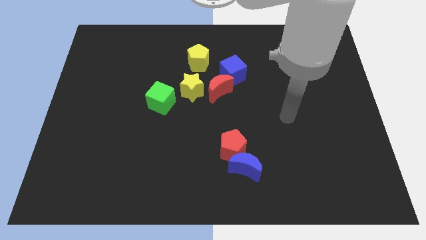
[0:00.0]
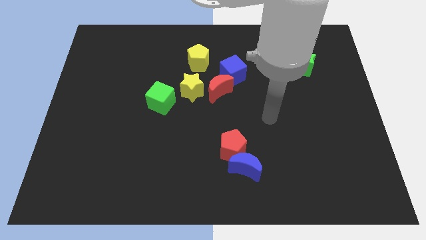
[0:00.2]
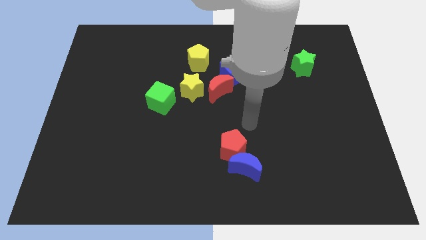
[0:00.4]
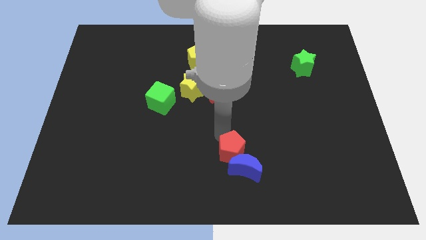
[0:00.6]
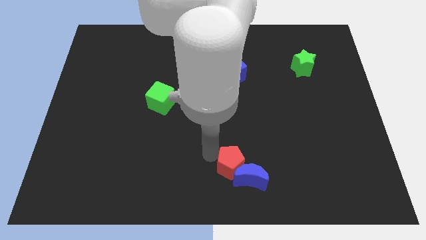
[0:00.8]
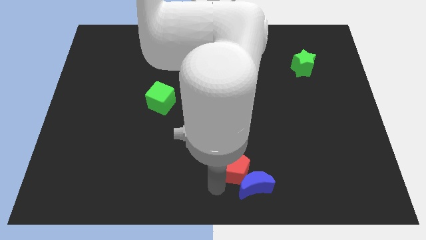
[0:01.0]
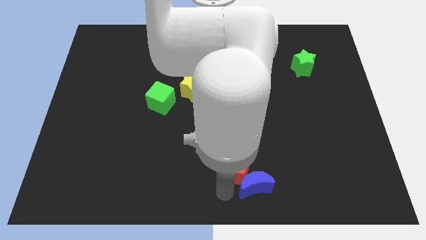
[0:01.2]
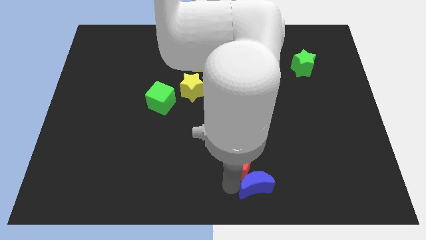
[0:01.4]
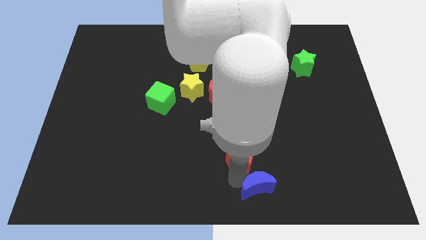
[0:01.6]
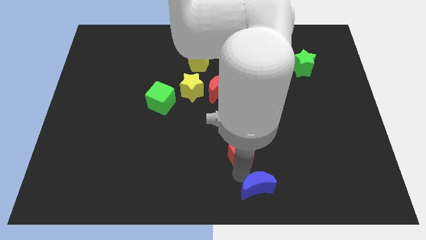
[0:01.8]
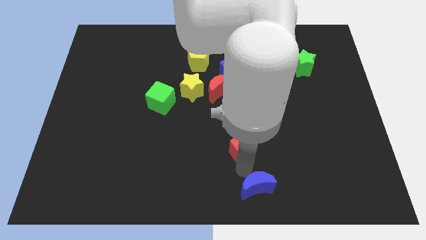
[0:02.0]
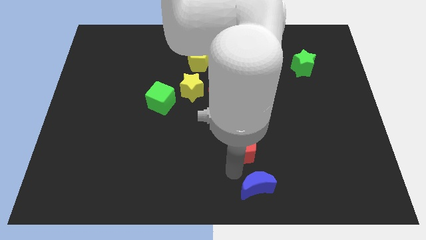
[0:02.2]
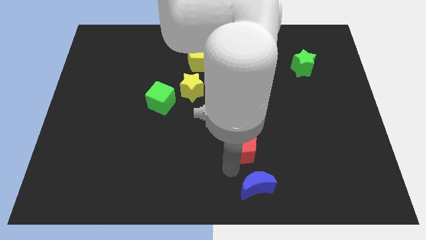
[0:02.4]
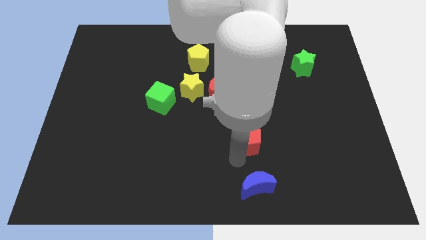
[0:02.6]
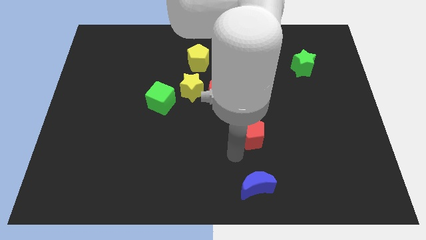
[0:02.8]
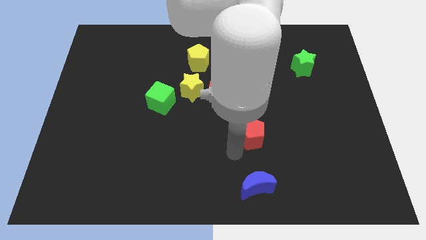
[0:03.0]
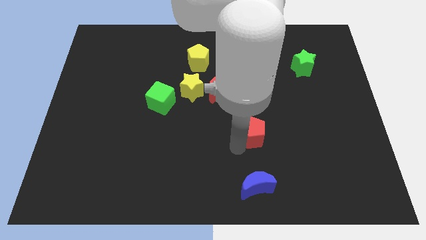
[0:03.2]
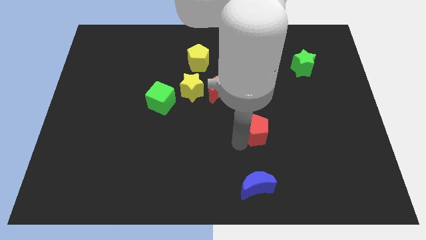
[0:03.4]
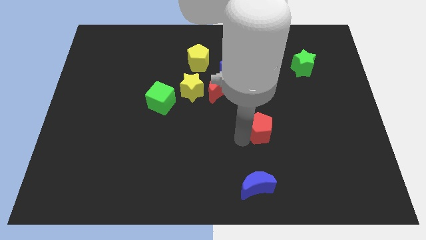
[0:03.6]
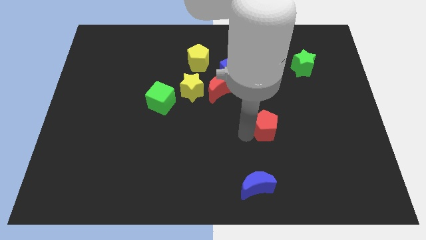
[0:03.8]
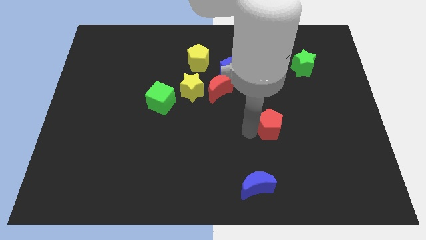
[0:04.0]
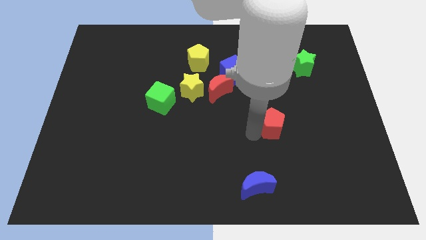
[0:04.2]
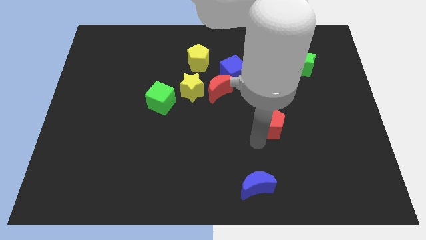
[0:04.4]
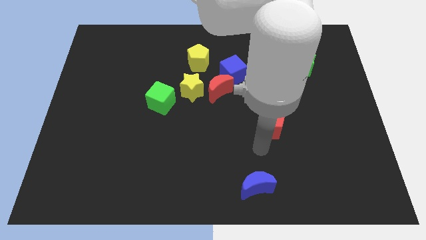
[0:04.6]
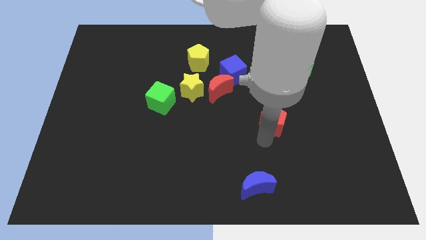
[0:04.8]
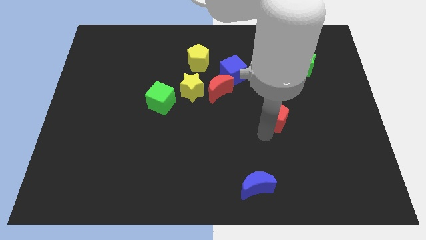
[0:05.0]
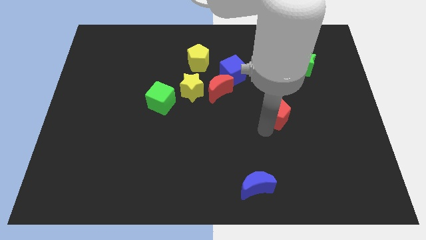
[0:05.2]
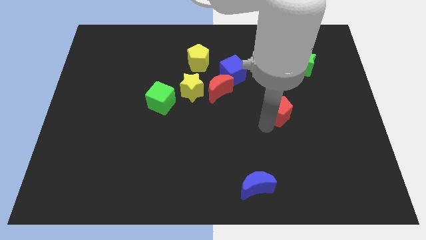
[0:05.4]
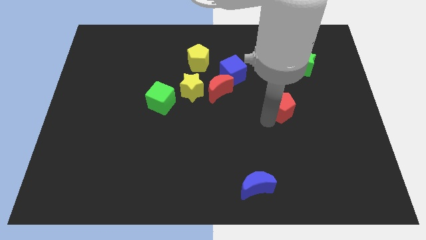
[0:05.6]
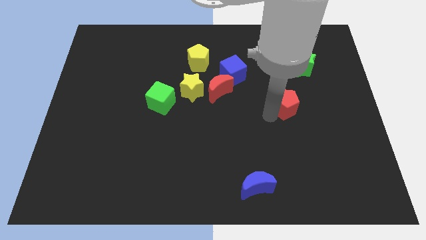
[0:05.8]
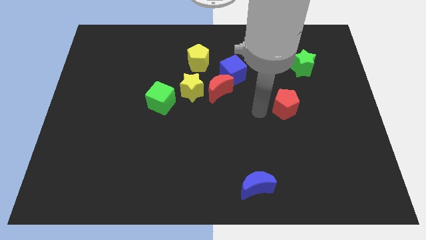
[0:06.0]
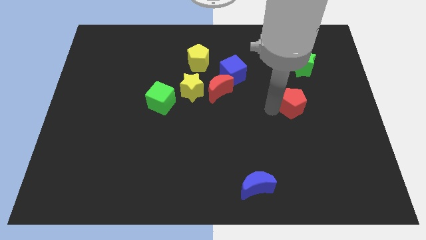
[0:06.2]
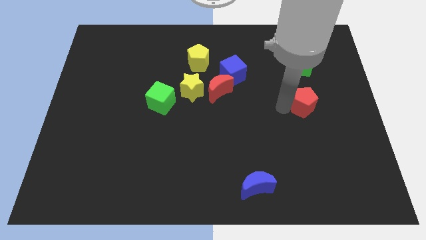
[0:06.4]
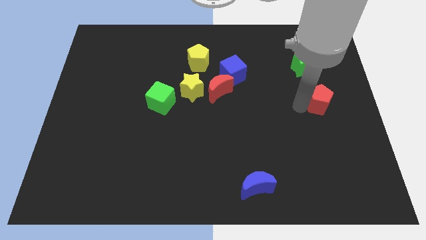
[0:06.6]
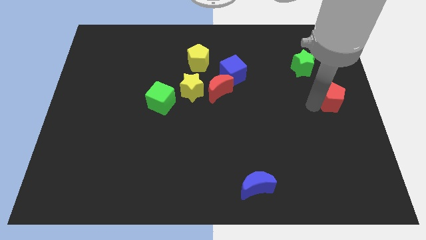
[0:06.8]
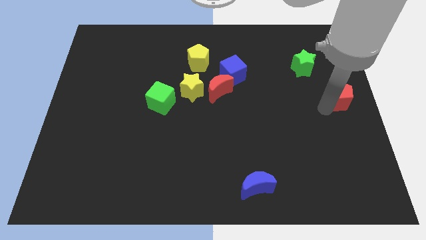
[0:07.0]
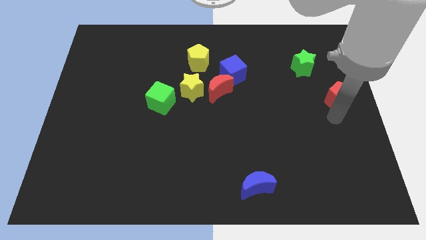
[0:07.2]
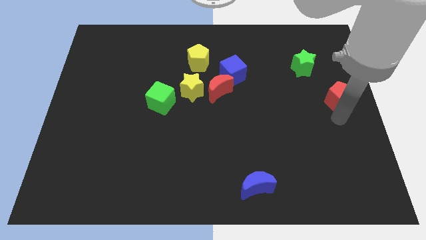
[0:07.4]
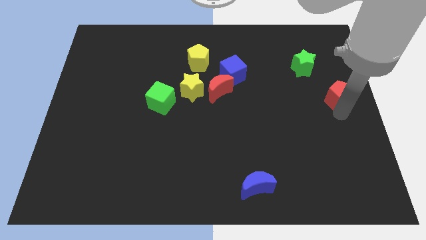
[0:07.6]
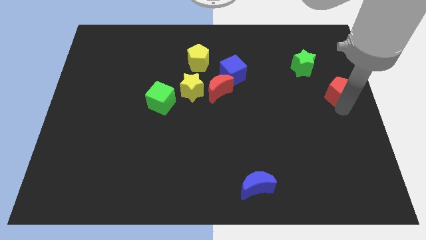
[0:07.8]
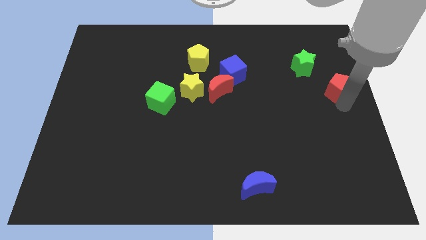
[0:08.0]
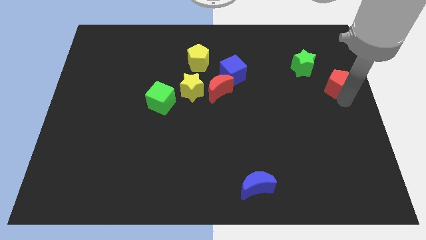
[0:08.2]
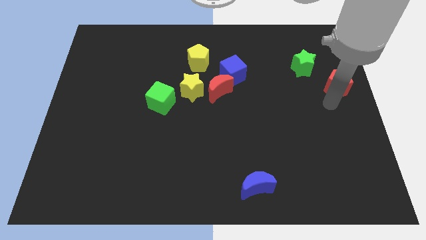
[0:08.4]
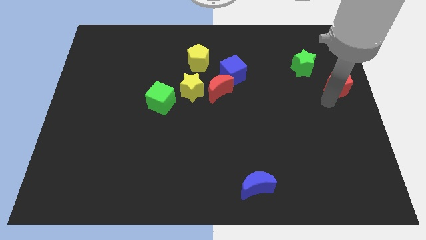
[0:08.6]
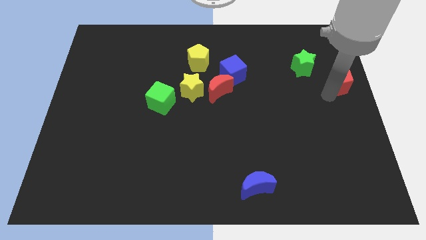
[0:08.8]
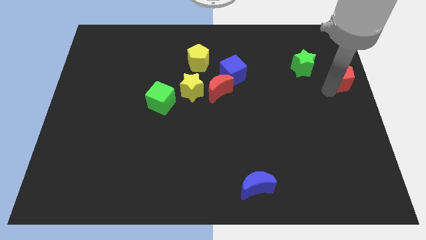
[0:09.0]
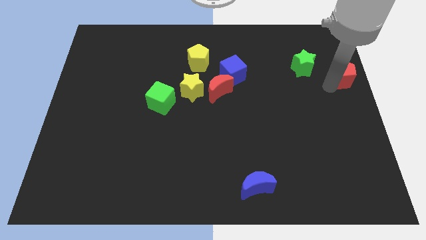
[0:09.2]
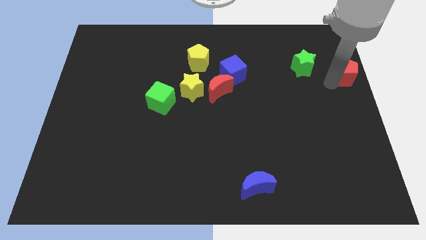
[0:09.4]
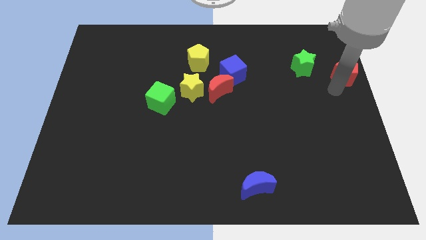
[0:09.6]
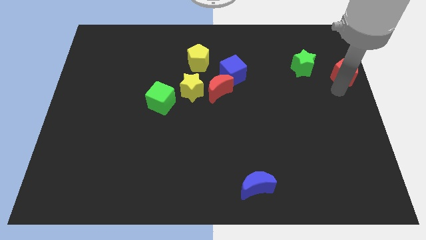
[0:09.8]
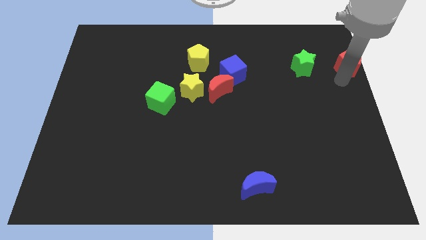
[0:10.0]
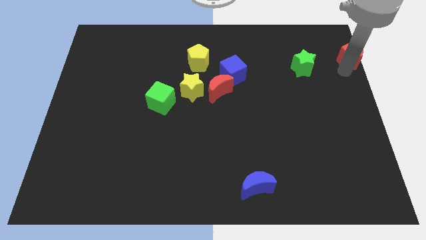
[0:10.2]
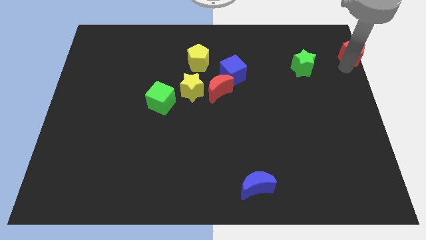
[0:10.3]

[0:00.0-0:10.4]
push the red pentagon to the top right corner

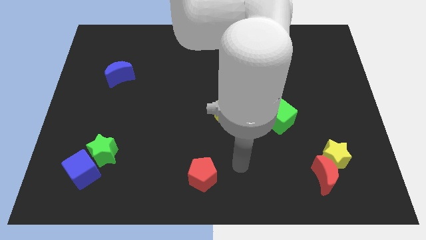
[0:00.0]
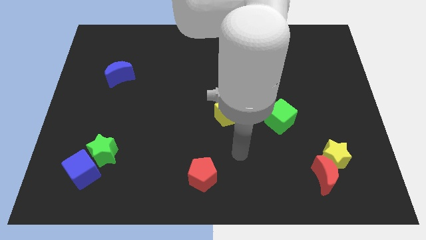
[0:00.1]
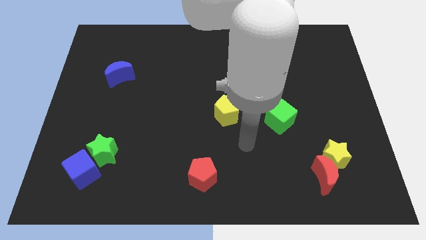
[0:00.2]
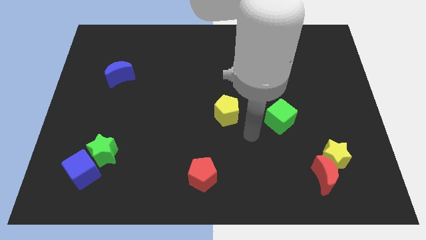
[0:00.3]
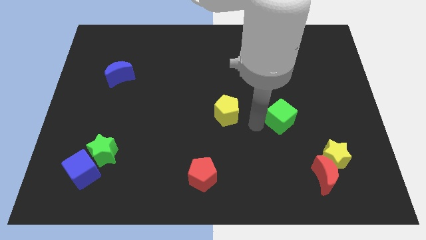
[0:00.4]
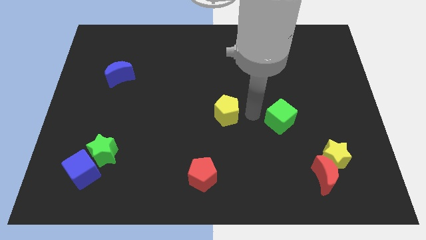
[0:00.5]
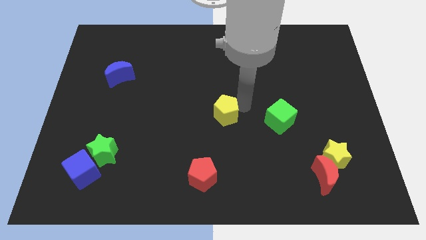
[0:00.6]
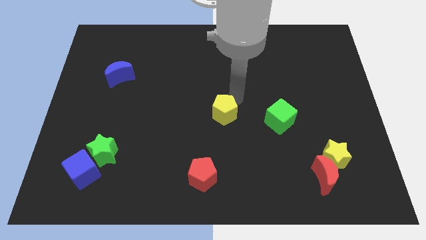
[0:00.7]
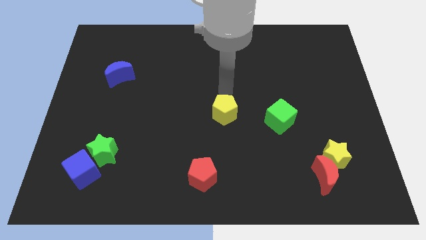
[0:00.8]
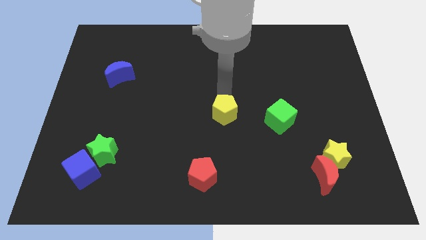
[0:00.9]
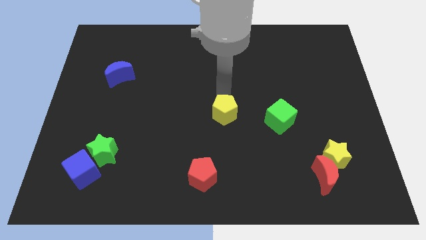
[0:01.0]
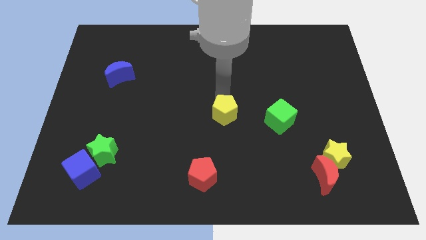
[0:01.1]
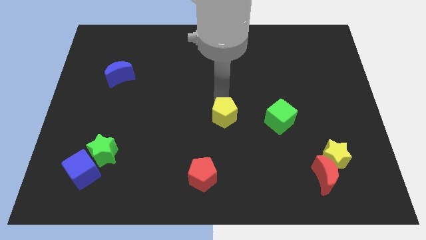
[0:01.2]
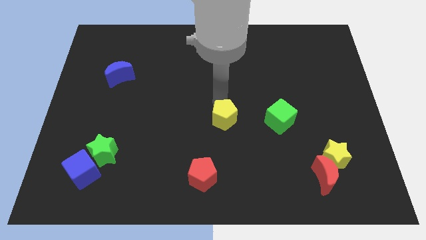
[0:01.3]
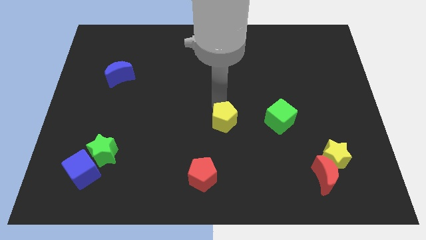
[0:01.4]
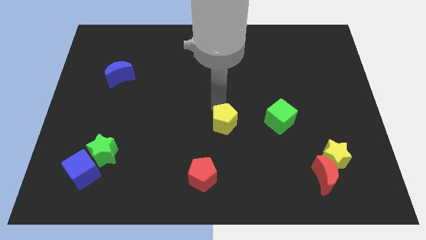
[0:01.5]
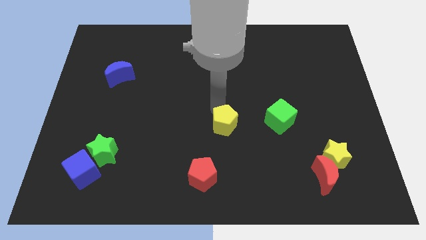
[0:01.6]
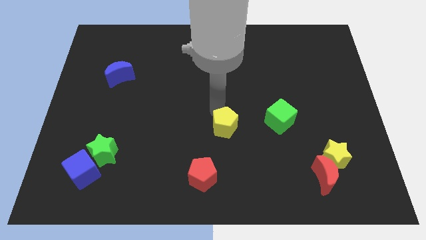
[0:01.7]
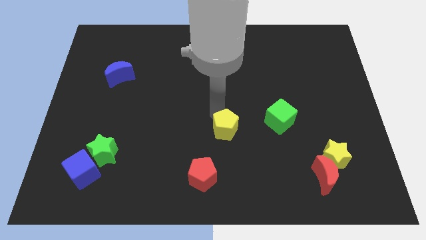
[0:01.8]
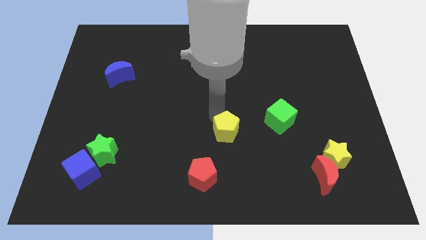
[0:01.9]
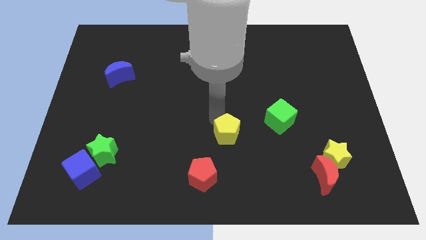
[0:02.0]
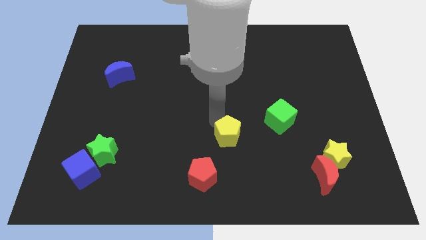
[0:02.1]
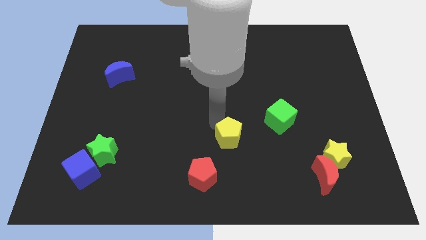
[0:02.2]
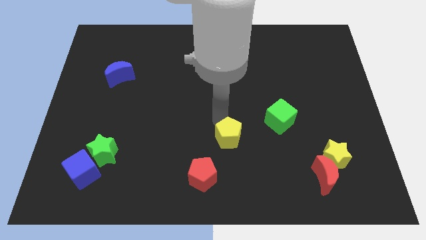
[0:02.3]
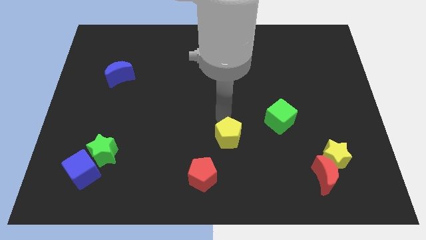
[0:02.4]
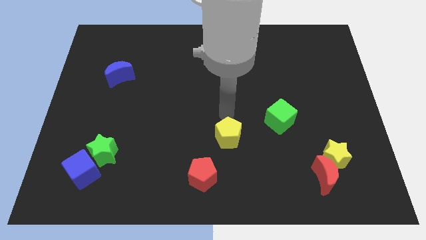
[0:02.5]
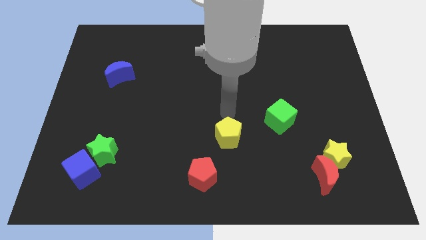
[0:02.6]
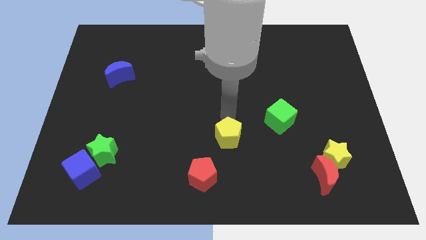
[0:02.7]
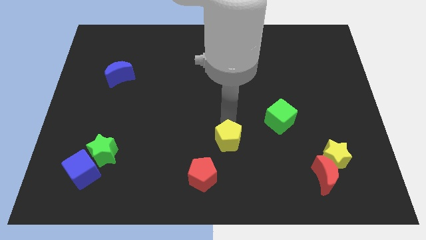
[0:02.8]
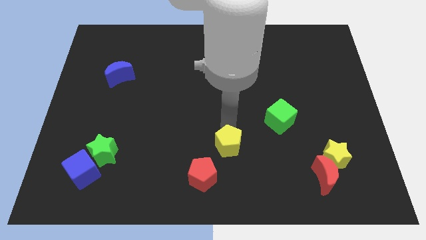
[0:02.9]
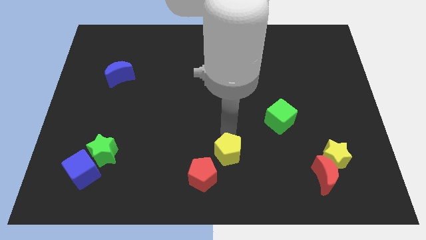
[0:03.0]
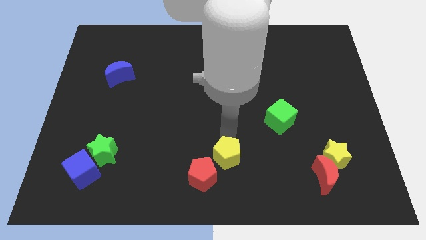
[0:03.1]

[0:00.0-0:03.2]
push the yellow pentagon to the bottom side

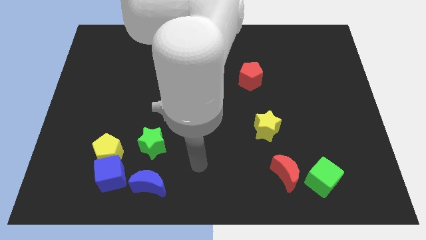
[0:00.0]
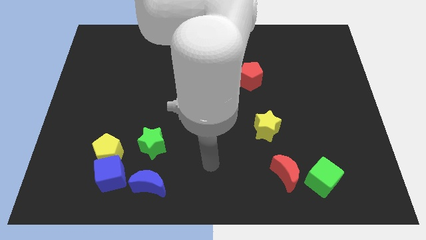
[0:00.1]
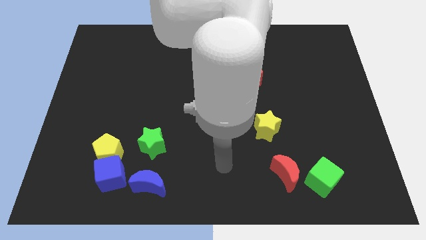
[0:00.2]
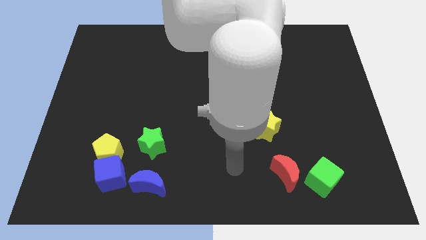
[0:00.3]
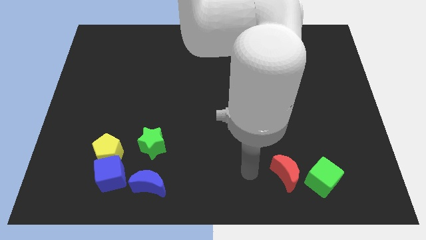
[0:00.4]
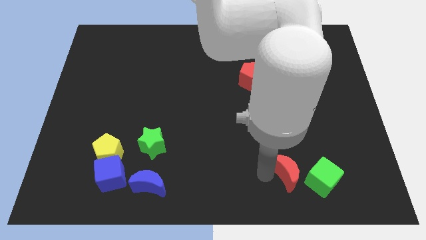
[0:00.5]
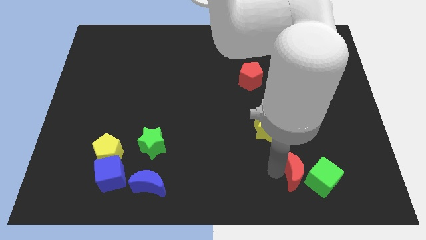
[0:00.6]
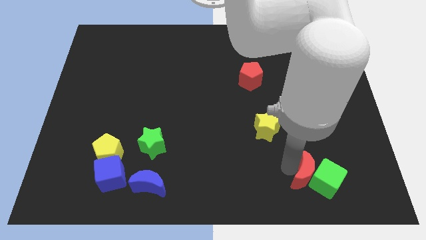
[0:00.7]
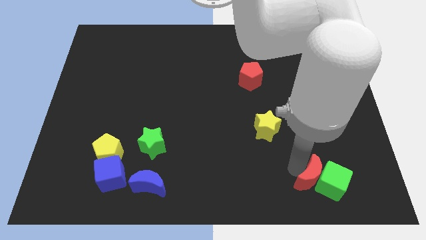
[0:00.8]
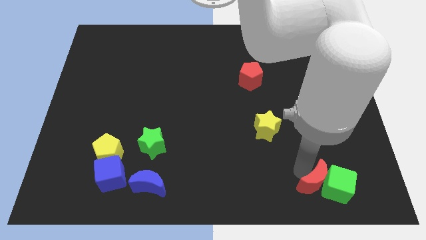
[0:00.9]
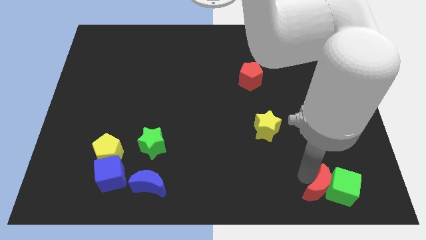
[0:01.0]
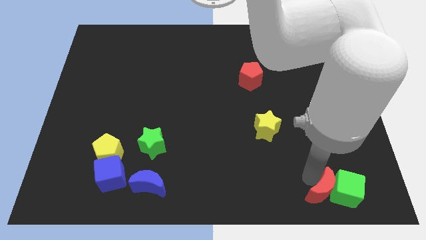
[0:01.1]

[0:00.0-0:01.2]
put the green cube to the bottom right of the board
